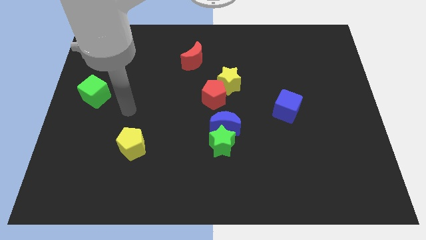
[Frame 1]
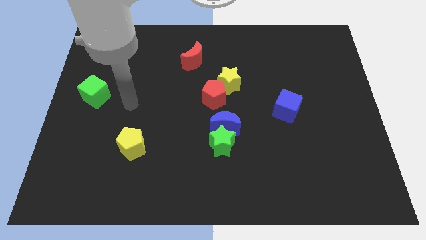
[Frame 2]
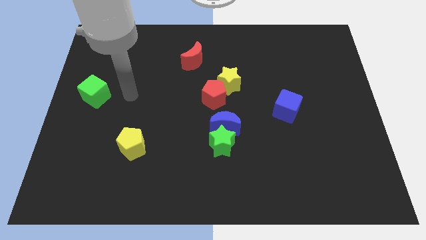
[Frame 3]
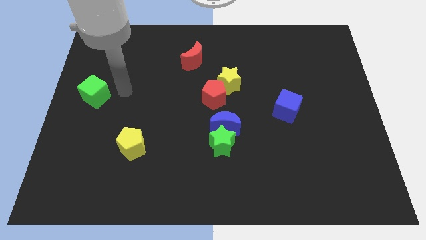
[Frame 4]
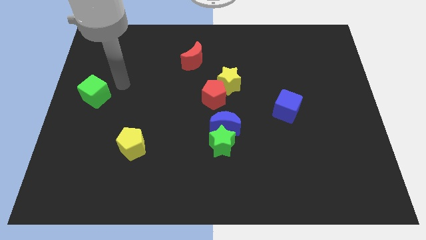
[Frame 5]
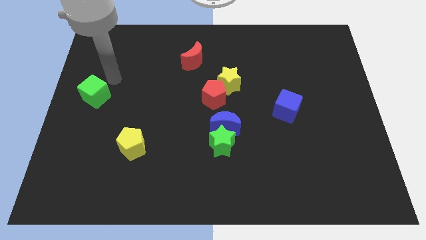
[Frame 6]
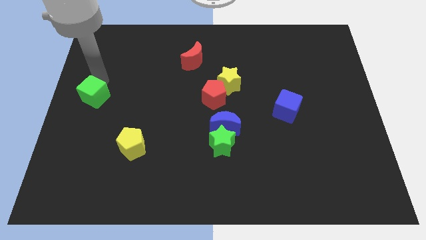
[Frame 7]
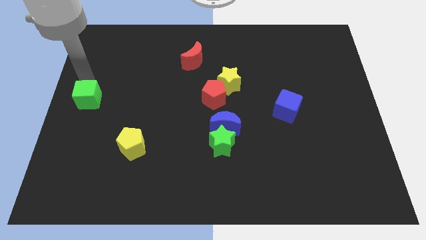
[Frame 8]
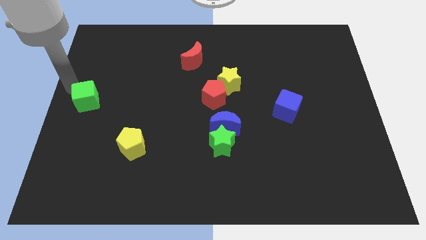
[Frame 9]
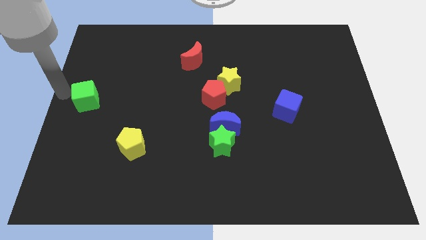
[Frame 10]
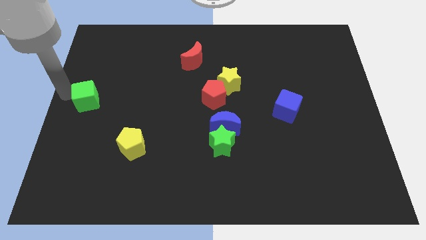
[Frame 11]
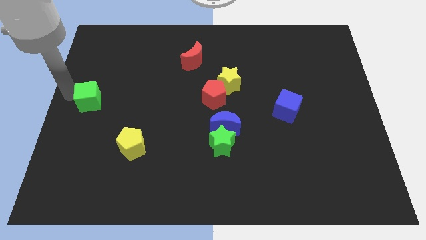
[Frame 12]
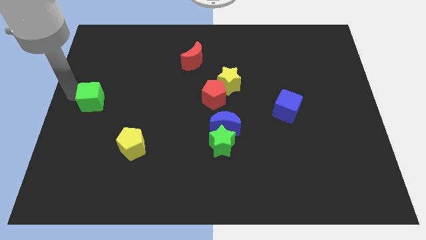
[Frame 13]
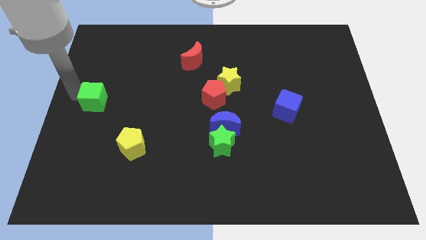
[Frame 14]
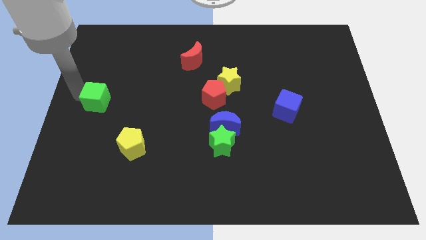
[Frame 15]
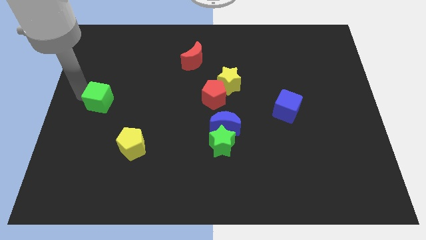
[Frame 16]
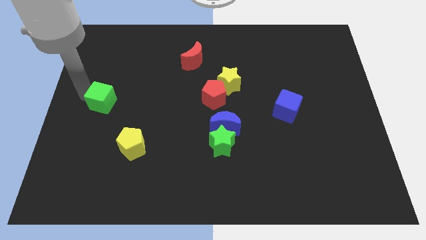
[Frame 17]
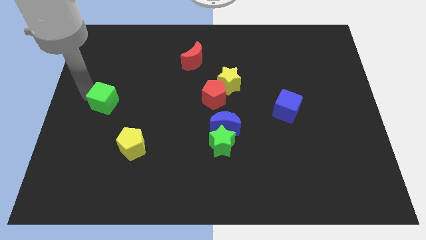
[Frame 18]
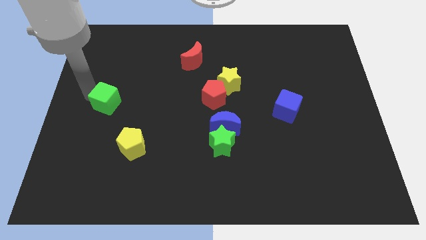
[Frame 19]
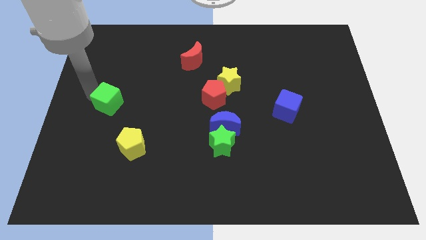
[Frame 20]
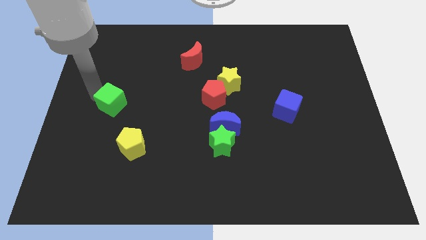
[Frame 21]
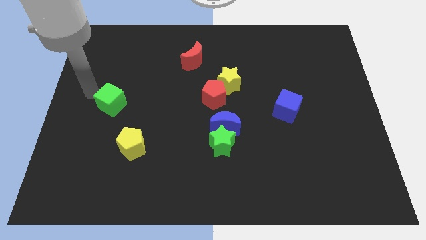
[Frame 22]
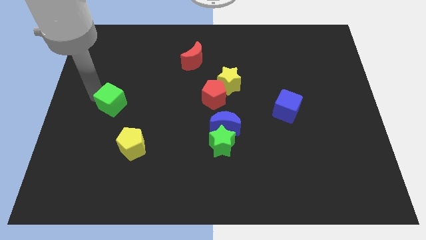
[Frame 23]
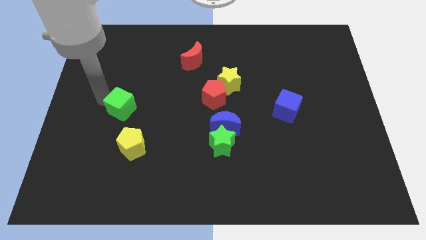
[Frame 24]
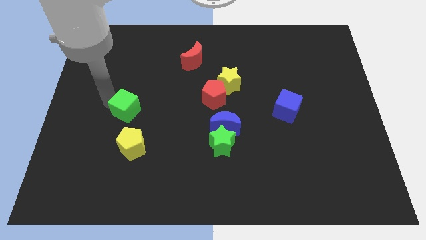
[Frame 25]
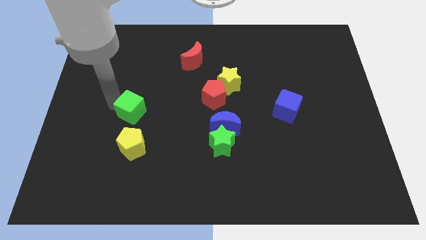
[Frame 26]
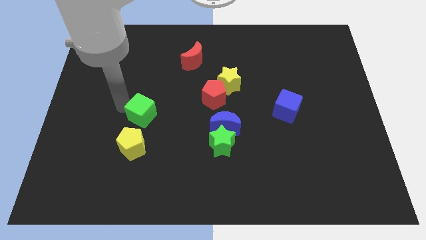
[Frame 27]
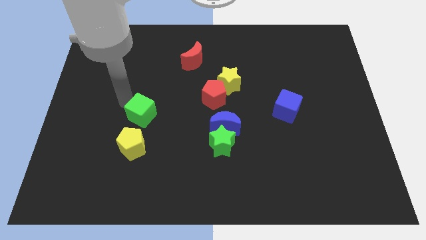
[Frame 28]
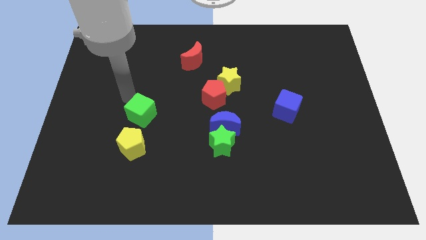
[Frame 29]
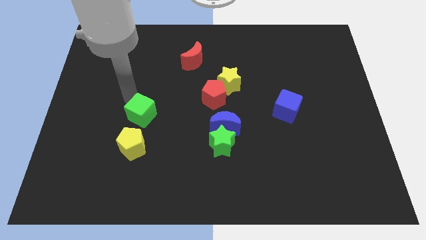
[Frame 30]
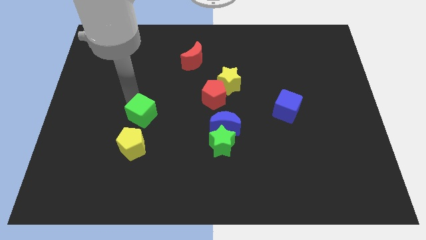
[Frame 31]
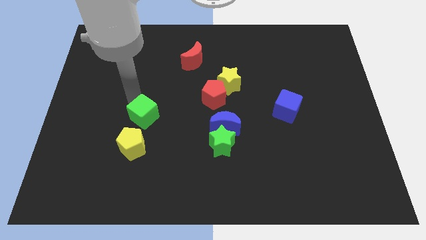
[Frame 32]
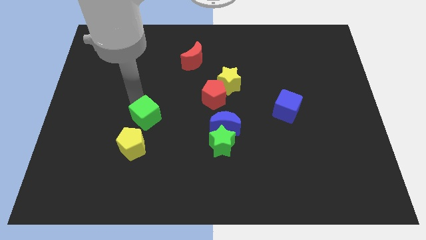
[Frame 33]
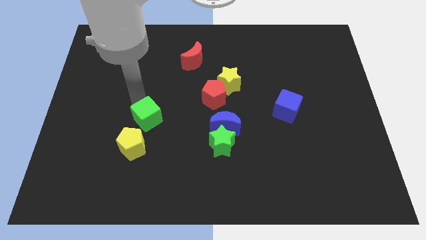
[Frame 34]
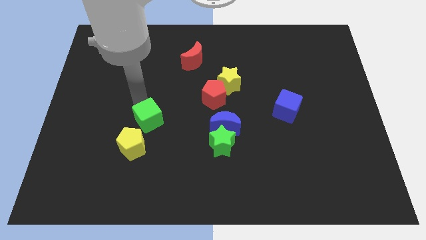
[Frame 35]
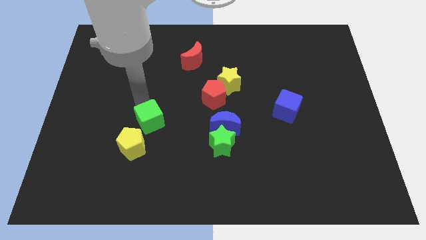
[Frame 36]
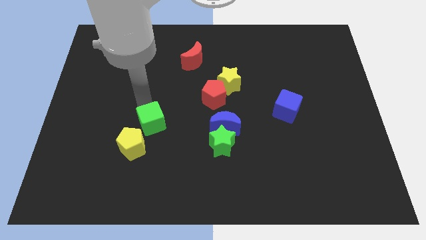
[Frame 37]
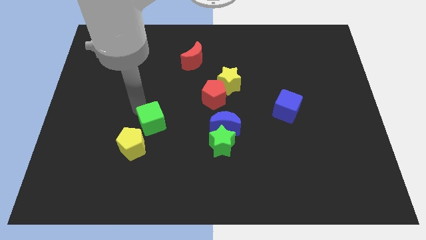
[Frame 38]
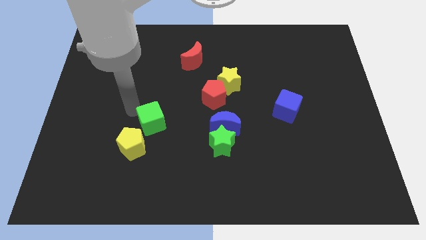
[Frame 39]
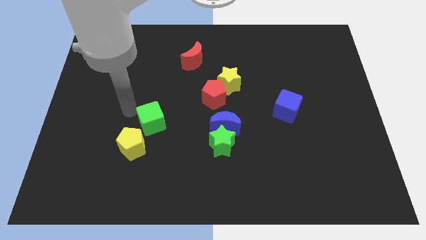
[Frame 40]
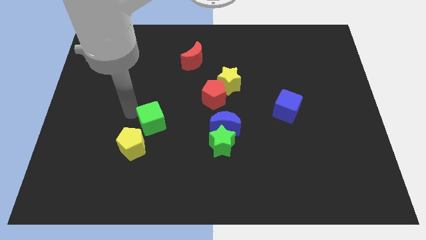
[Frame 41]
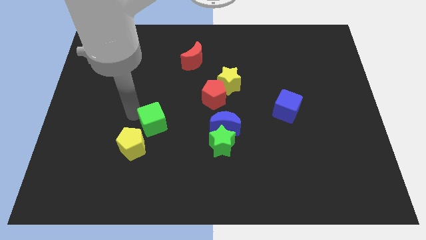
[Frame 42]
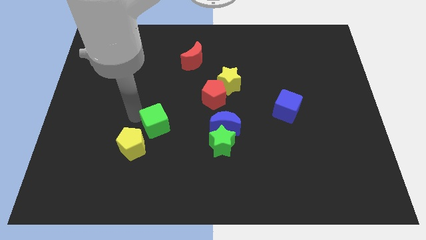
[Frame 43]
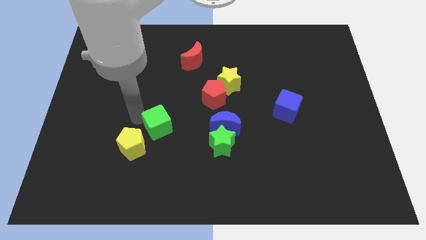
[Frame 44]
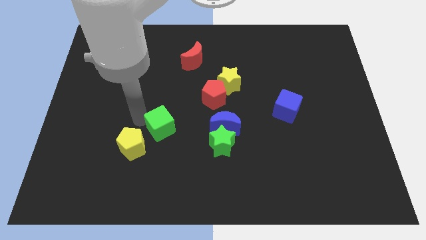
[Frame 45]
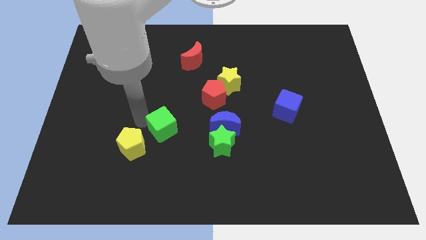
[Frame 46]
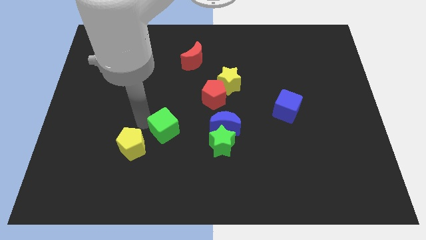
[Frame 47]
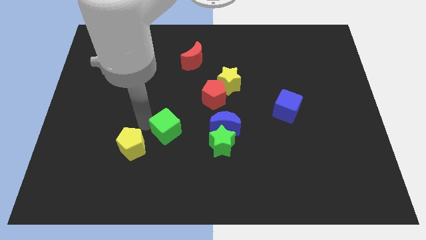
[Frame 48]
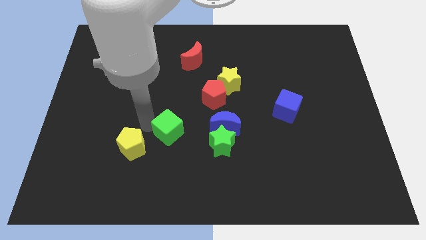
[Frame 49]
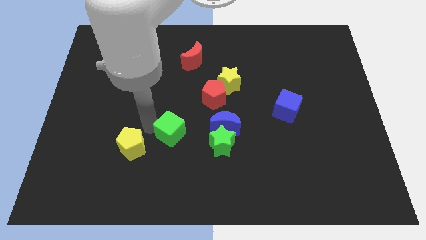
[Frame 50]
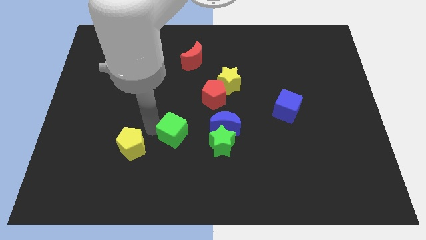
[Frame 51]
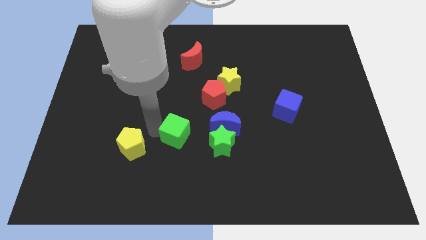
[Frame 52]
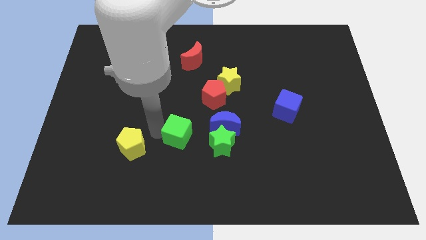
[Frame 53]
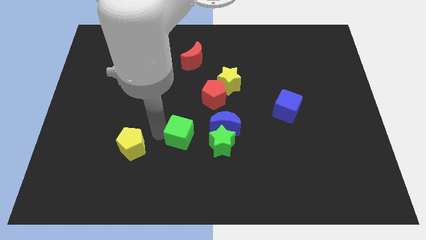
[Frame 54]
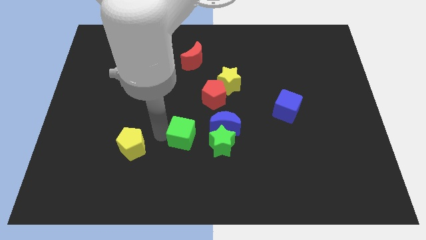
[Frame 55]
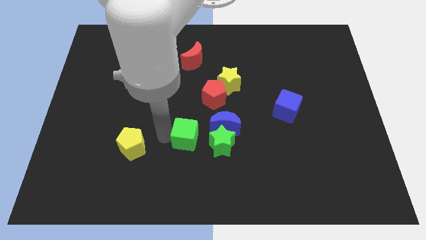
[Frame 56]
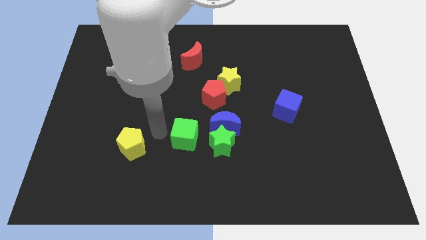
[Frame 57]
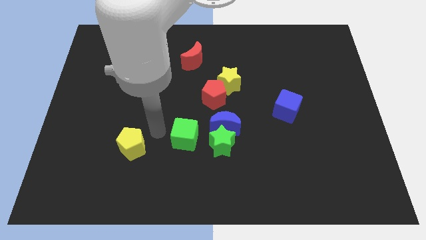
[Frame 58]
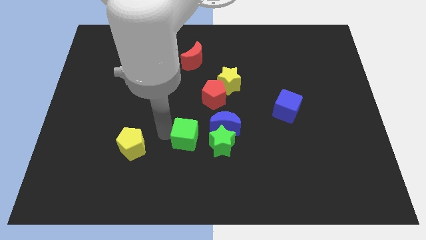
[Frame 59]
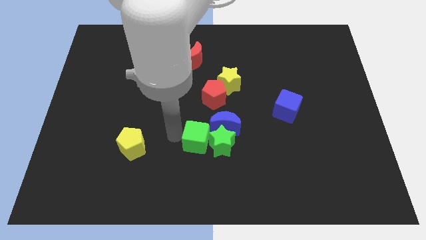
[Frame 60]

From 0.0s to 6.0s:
slide the green cube to the green star
